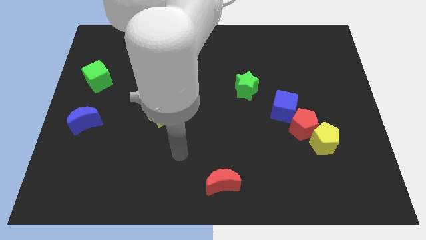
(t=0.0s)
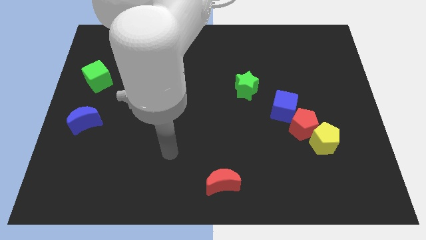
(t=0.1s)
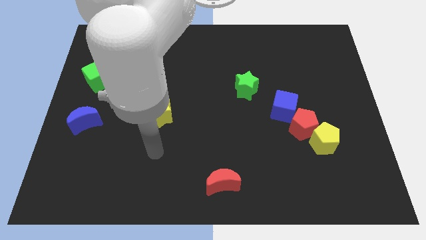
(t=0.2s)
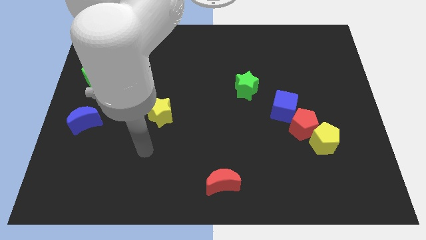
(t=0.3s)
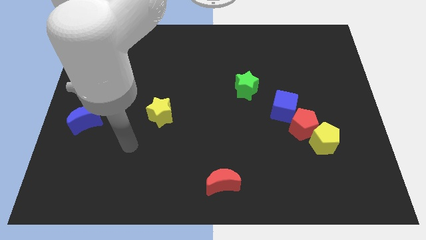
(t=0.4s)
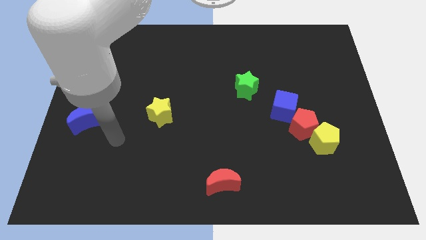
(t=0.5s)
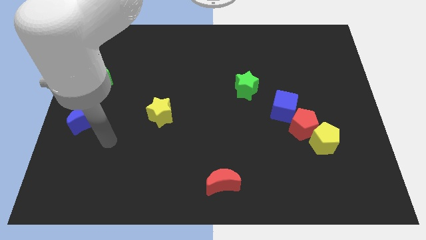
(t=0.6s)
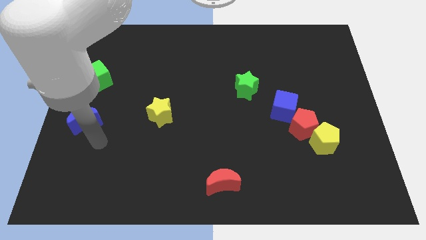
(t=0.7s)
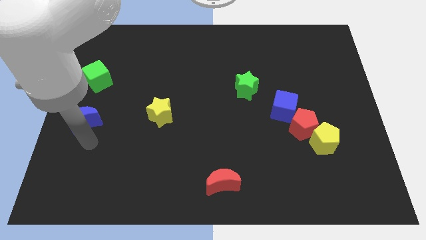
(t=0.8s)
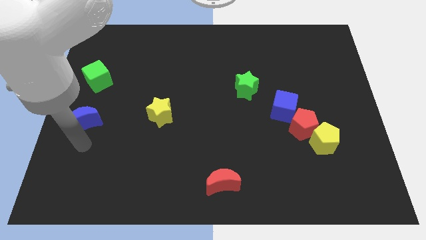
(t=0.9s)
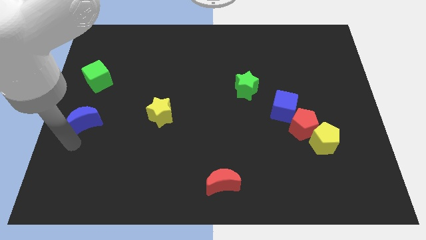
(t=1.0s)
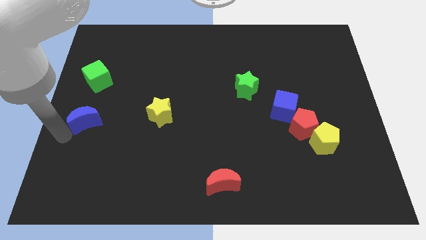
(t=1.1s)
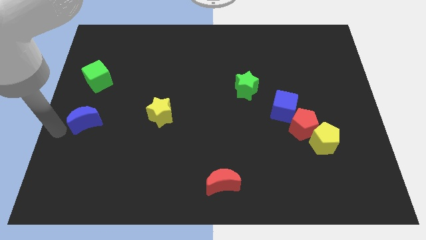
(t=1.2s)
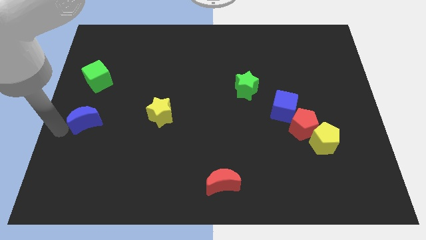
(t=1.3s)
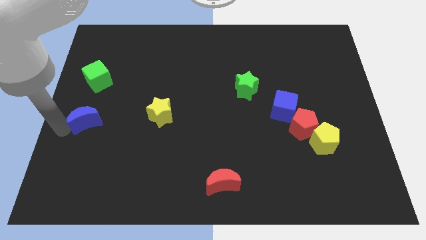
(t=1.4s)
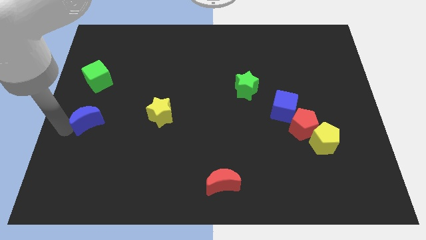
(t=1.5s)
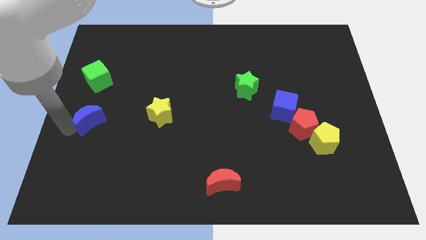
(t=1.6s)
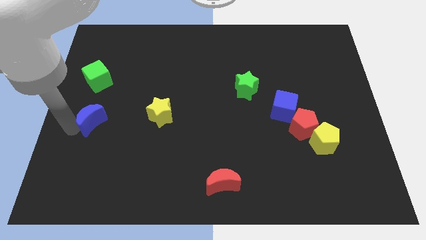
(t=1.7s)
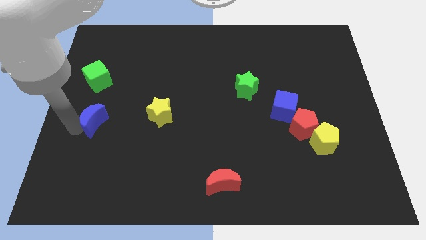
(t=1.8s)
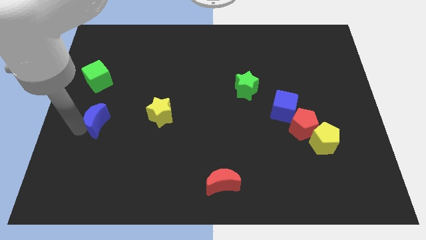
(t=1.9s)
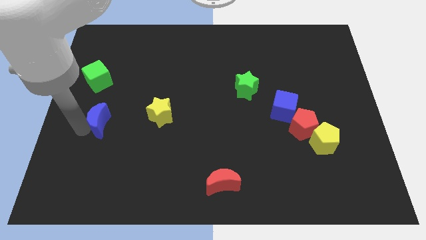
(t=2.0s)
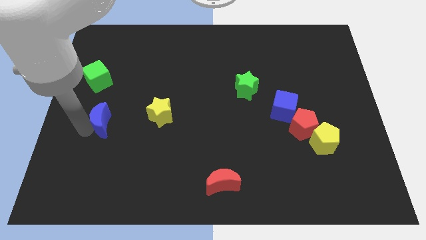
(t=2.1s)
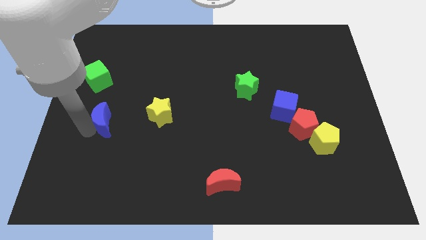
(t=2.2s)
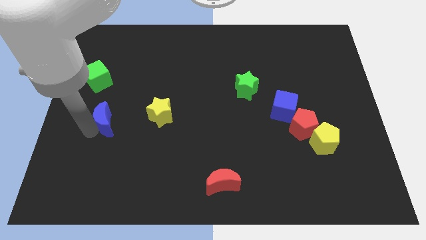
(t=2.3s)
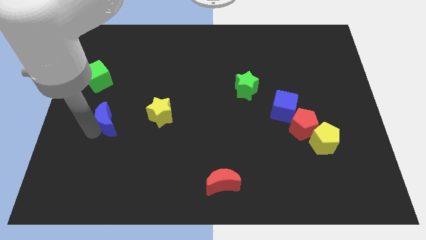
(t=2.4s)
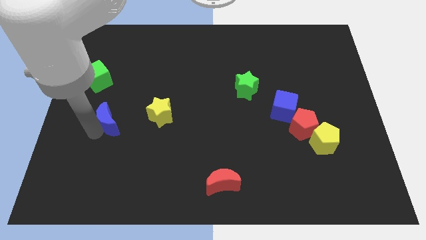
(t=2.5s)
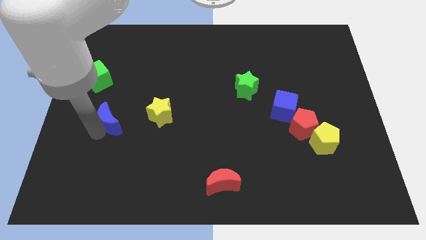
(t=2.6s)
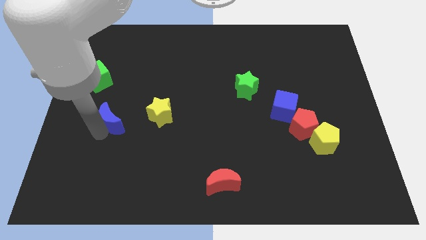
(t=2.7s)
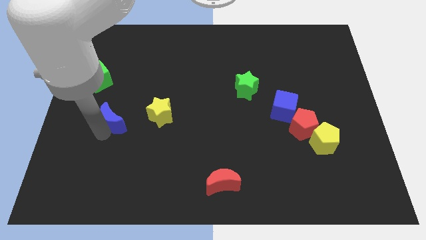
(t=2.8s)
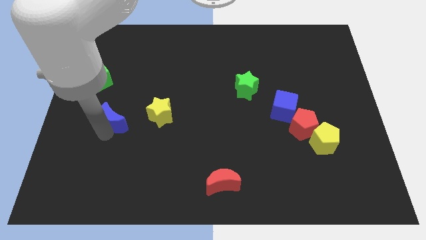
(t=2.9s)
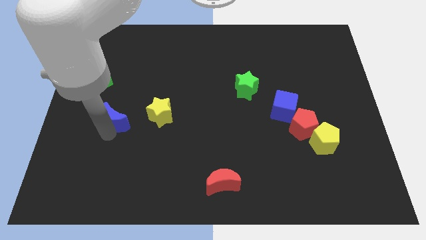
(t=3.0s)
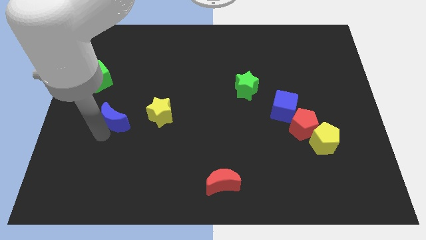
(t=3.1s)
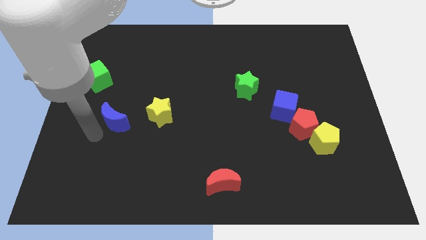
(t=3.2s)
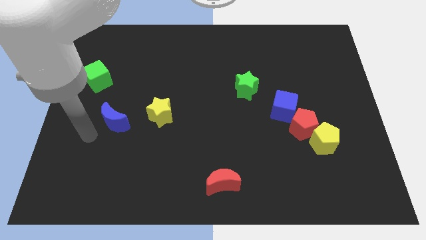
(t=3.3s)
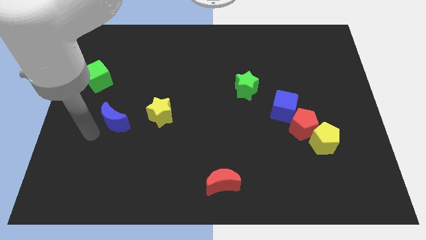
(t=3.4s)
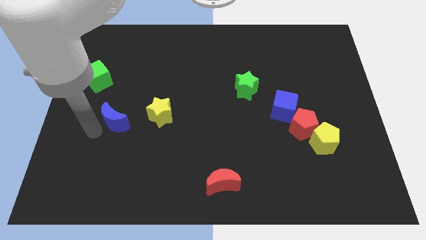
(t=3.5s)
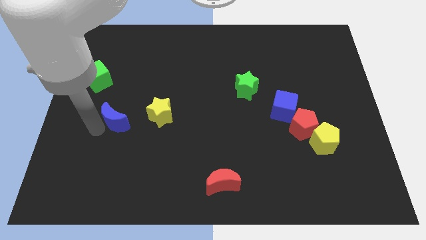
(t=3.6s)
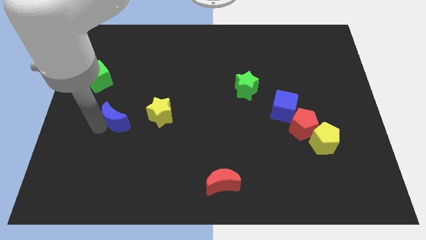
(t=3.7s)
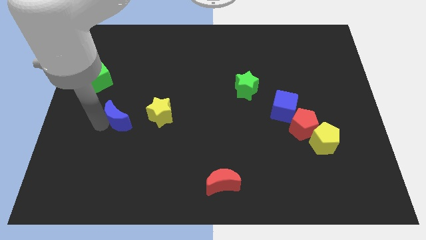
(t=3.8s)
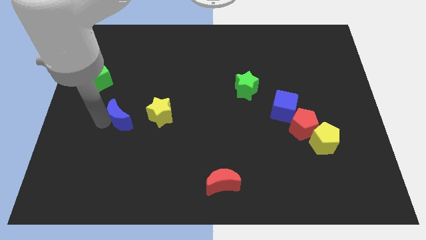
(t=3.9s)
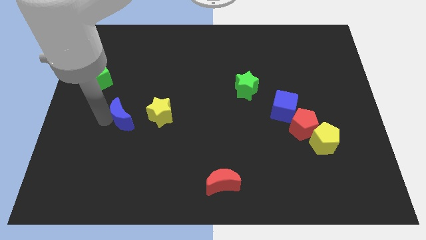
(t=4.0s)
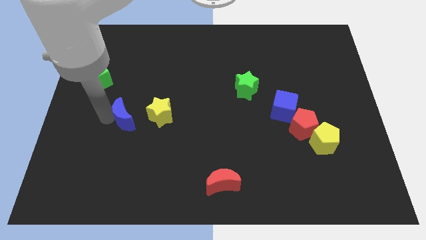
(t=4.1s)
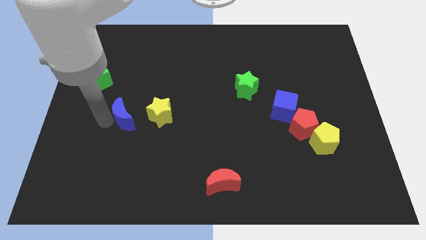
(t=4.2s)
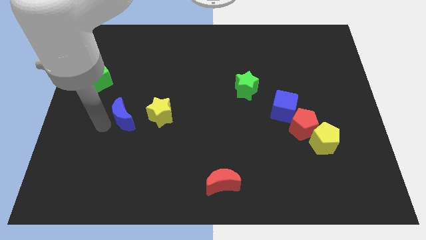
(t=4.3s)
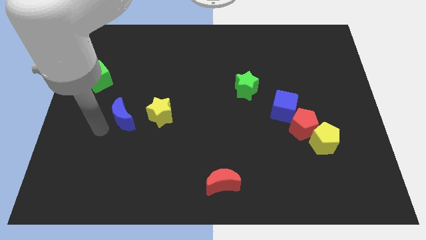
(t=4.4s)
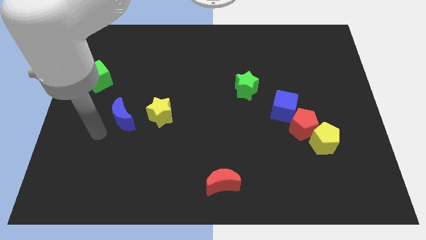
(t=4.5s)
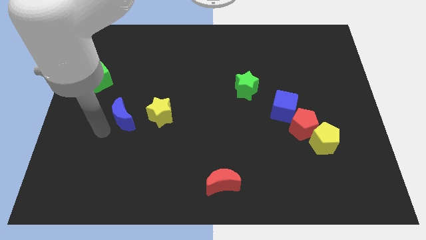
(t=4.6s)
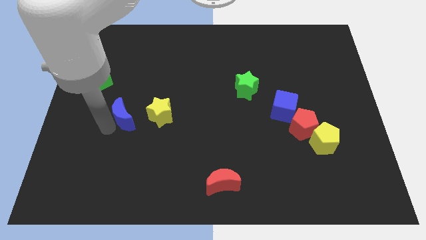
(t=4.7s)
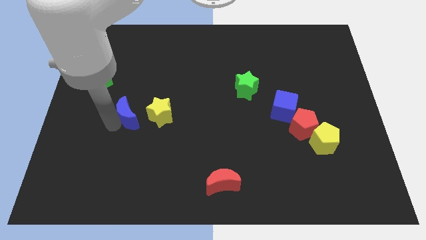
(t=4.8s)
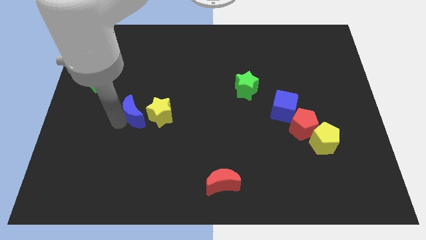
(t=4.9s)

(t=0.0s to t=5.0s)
put the blue moon next to the yellow star

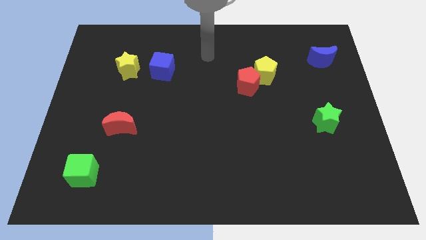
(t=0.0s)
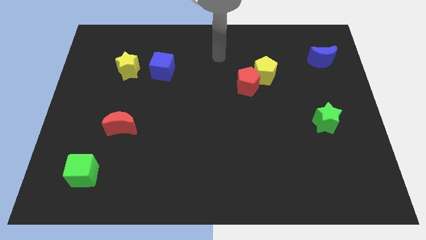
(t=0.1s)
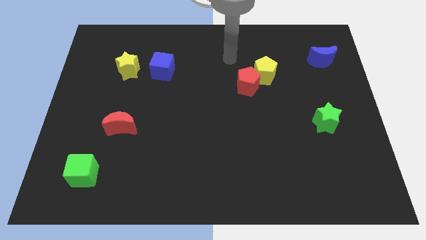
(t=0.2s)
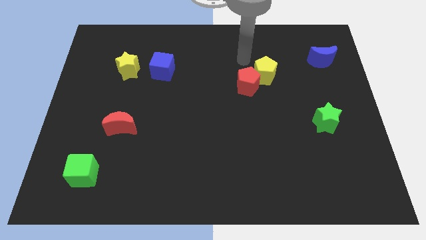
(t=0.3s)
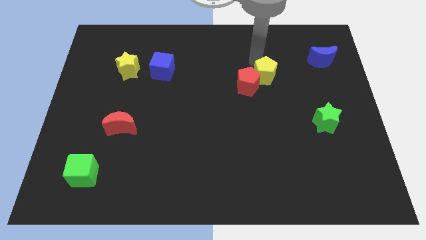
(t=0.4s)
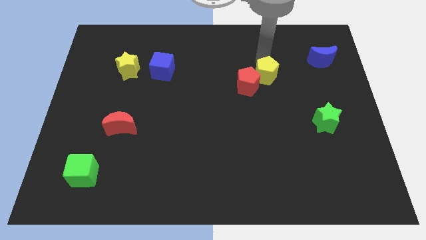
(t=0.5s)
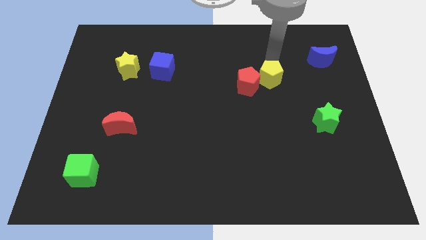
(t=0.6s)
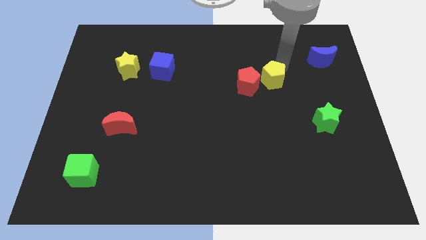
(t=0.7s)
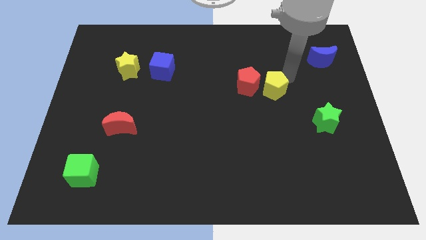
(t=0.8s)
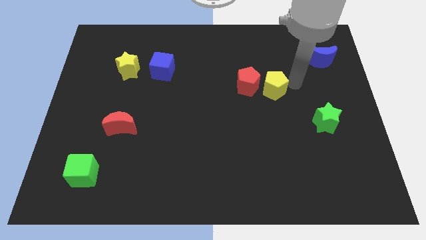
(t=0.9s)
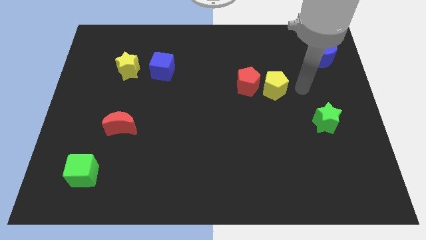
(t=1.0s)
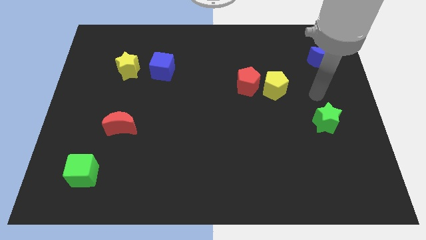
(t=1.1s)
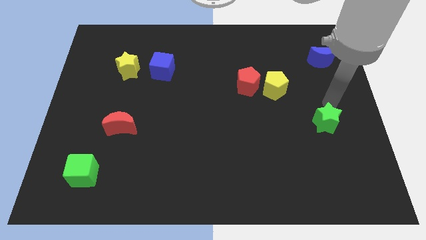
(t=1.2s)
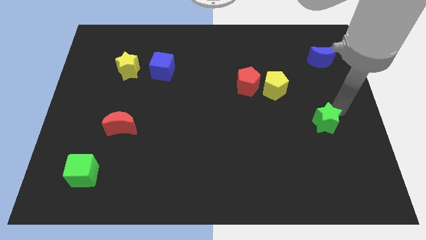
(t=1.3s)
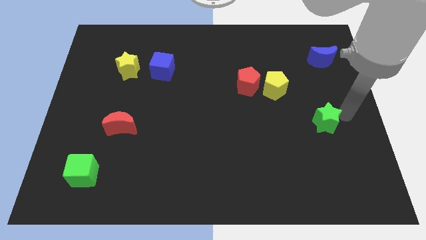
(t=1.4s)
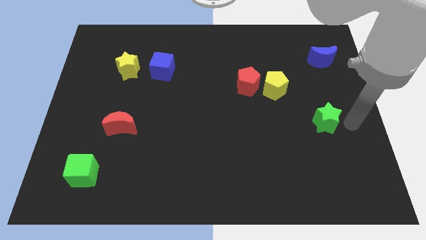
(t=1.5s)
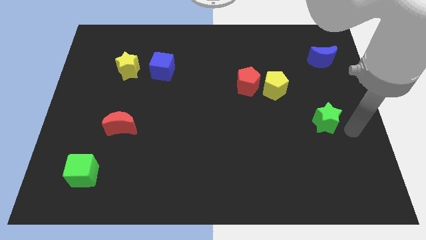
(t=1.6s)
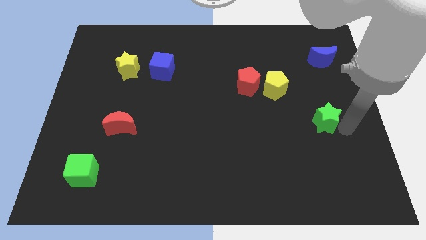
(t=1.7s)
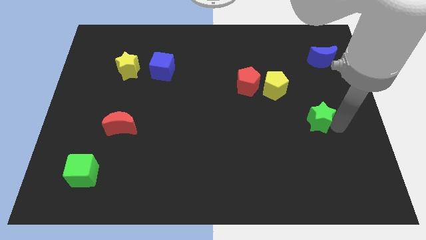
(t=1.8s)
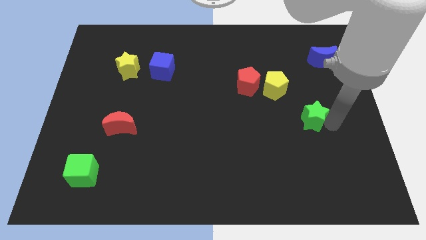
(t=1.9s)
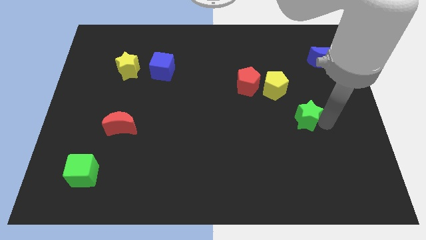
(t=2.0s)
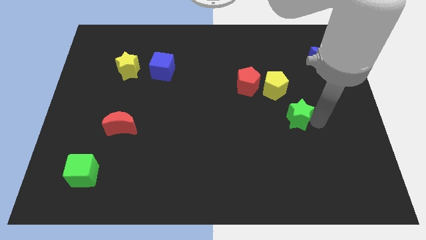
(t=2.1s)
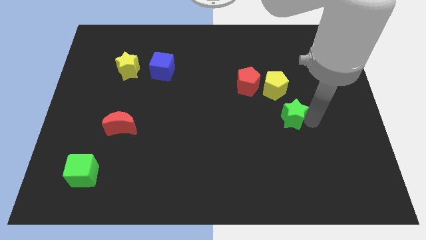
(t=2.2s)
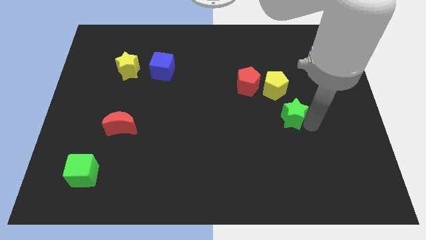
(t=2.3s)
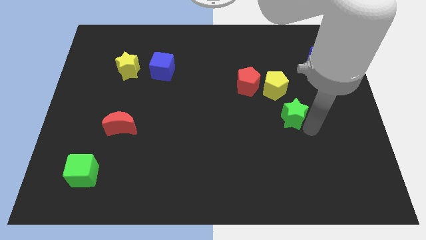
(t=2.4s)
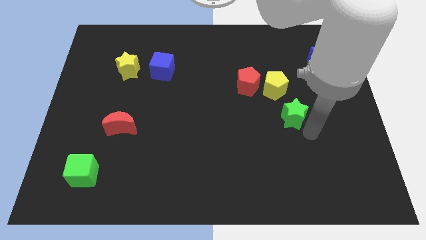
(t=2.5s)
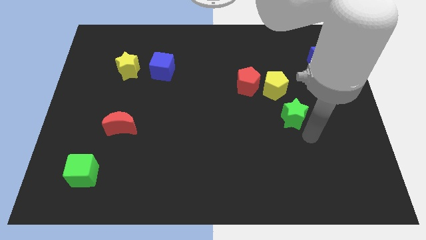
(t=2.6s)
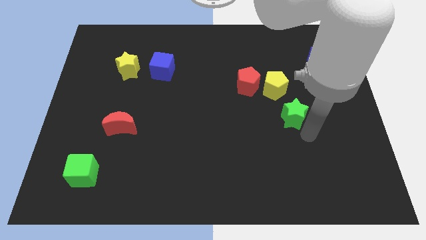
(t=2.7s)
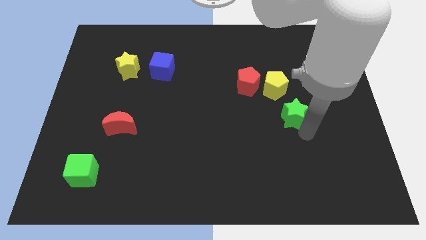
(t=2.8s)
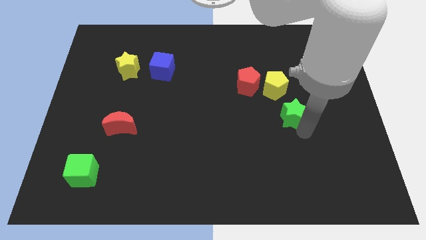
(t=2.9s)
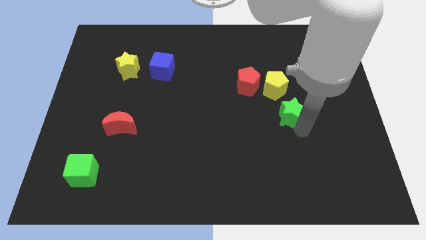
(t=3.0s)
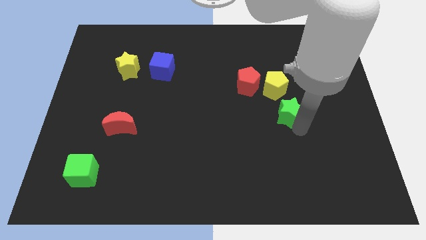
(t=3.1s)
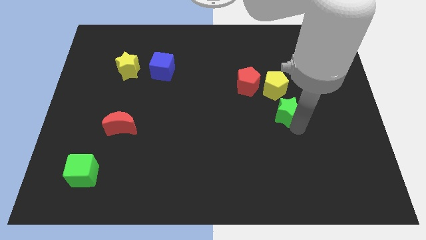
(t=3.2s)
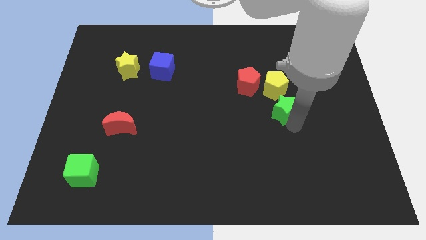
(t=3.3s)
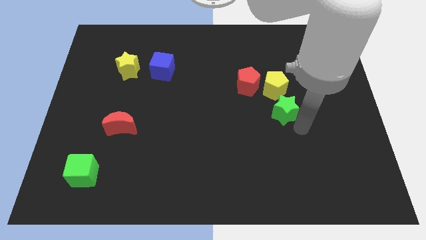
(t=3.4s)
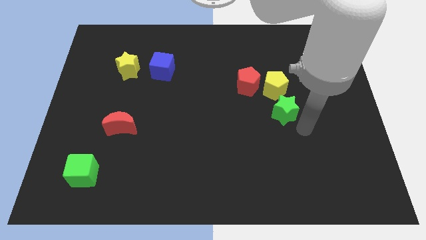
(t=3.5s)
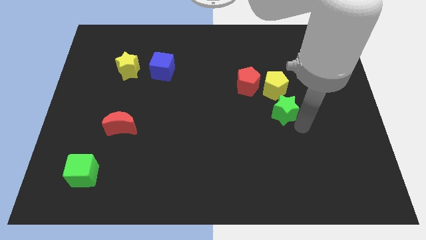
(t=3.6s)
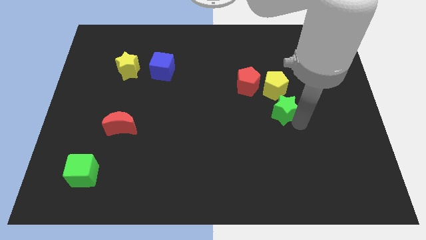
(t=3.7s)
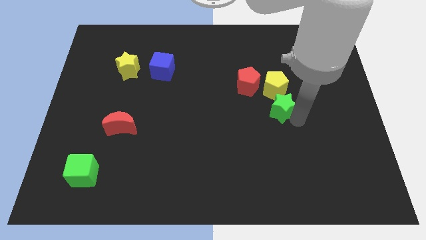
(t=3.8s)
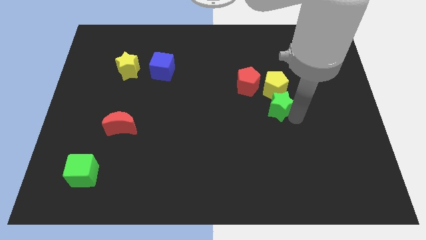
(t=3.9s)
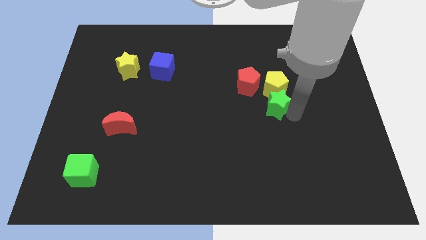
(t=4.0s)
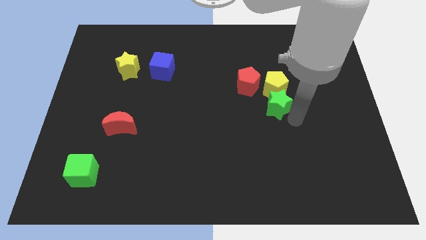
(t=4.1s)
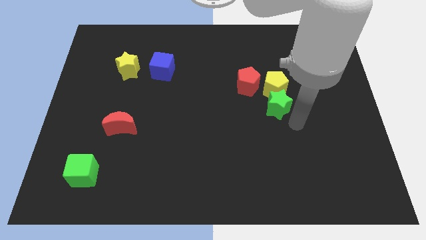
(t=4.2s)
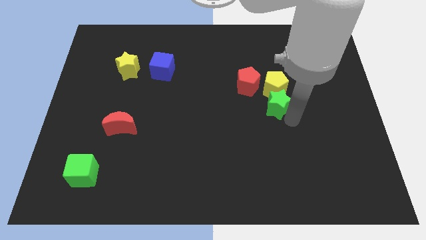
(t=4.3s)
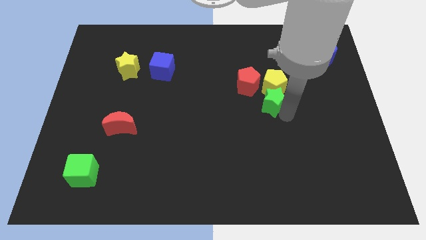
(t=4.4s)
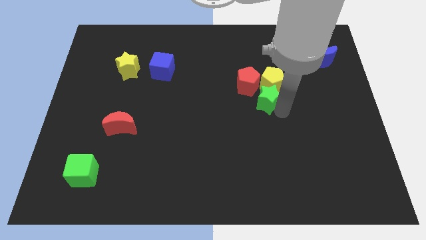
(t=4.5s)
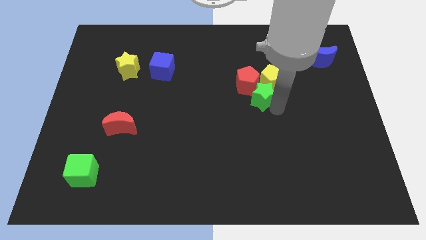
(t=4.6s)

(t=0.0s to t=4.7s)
put the green star to the red pentagon
